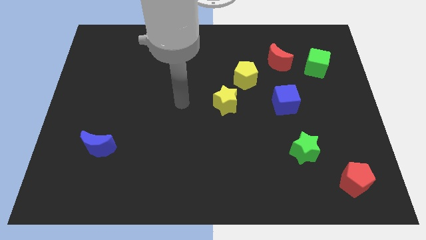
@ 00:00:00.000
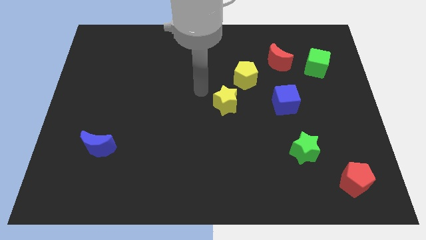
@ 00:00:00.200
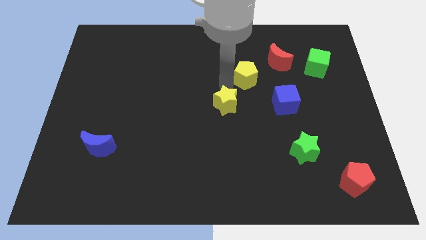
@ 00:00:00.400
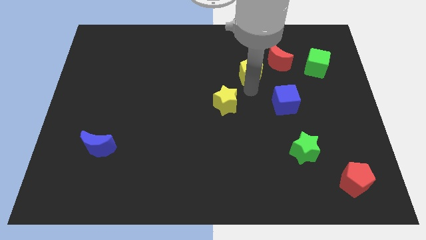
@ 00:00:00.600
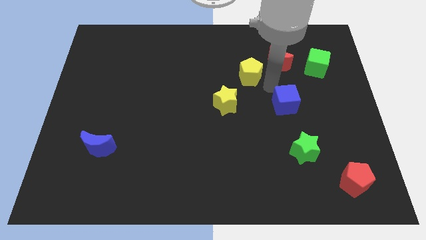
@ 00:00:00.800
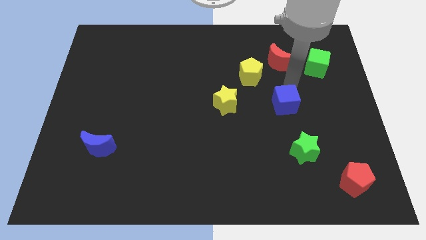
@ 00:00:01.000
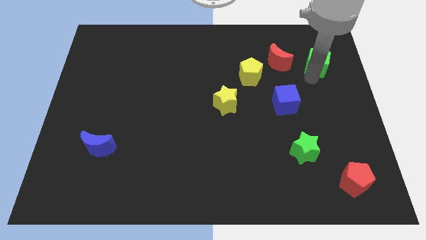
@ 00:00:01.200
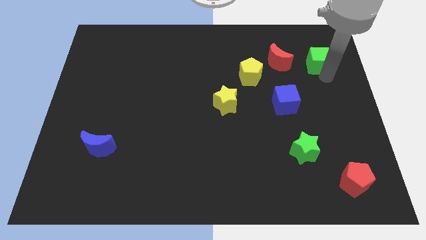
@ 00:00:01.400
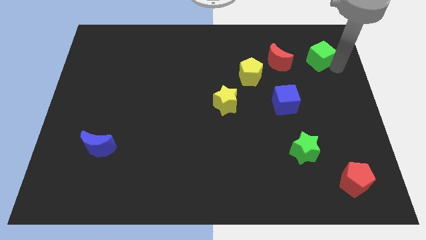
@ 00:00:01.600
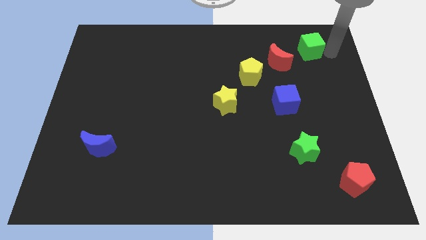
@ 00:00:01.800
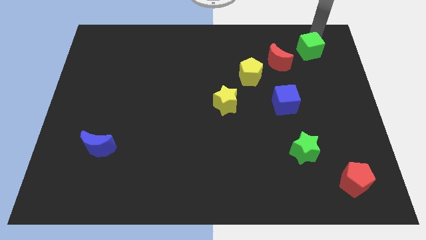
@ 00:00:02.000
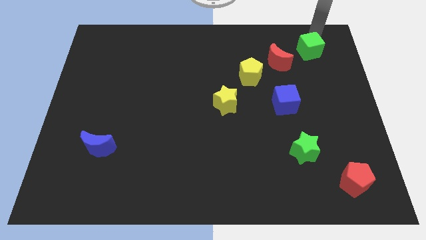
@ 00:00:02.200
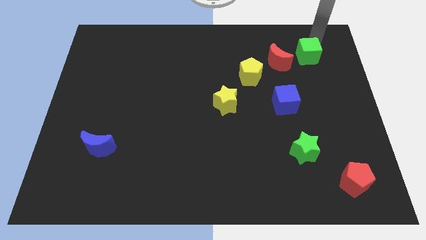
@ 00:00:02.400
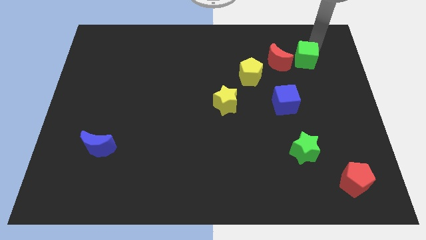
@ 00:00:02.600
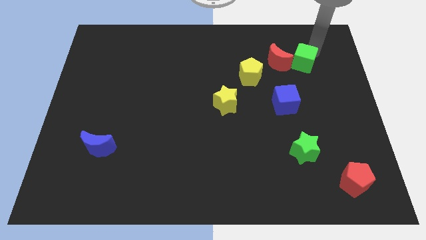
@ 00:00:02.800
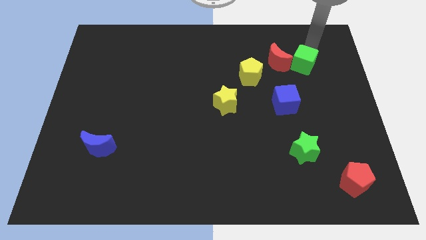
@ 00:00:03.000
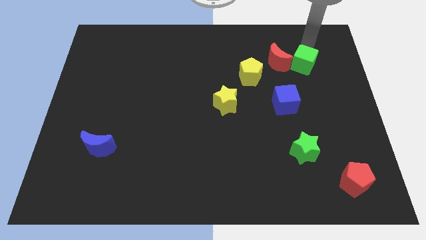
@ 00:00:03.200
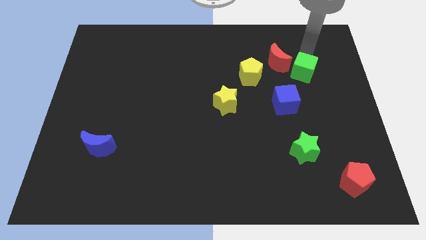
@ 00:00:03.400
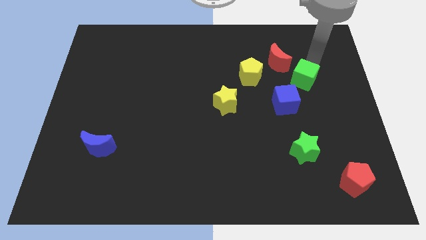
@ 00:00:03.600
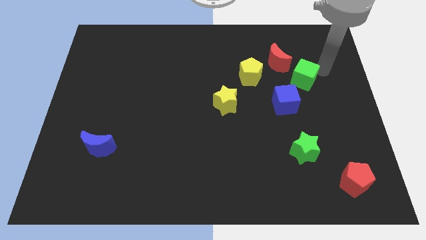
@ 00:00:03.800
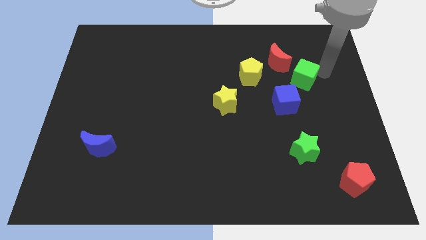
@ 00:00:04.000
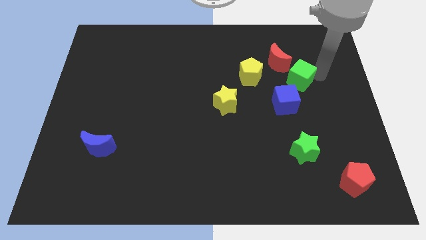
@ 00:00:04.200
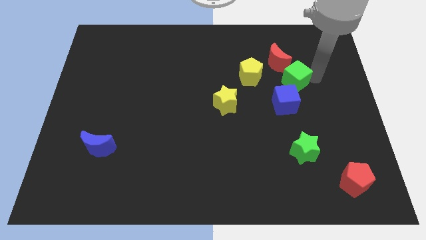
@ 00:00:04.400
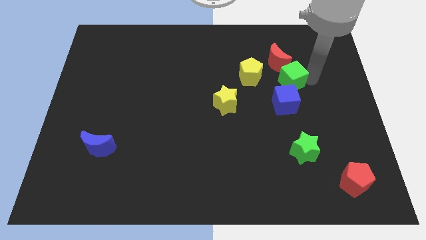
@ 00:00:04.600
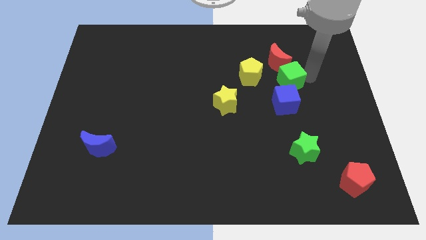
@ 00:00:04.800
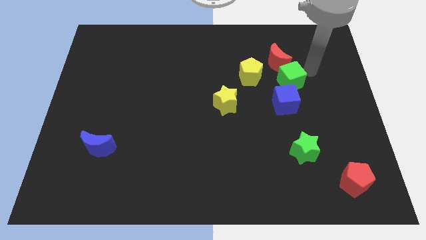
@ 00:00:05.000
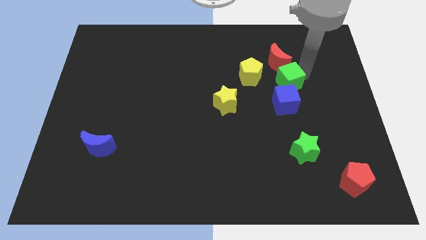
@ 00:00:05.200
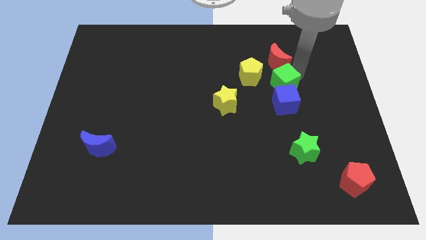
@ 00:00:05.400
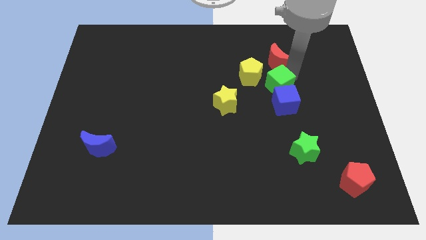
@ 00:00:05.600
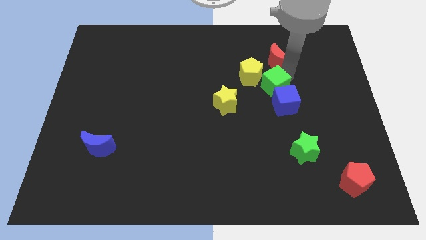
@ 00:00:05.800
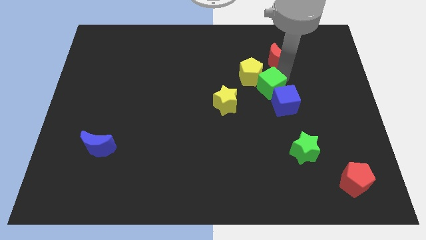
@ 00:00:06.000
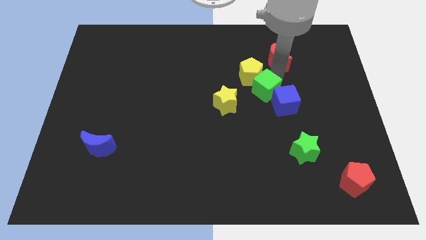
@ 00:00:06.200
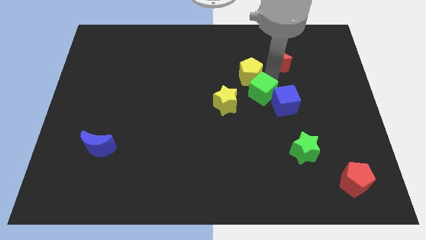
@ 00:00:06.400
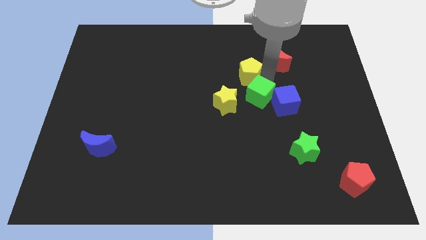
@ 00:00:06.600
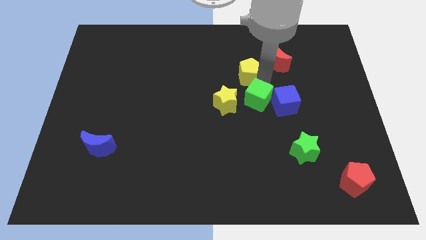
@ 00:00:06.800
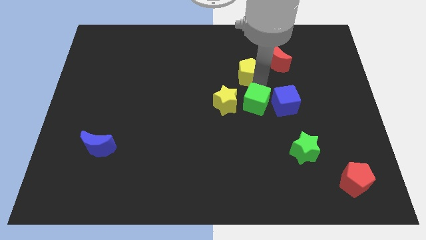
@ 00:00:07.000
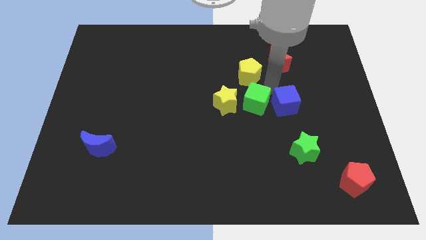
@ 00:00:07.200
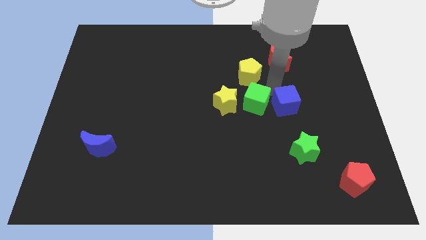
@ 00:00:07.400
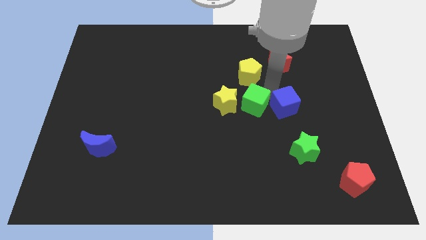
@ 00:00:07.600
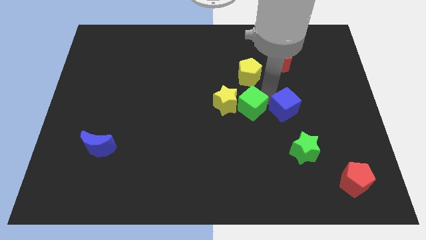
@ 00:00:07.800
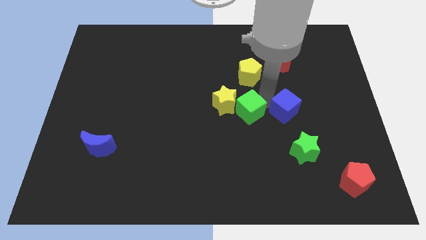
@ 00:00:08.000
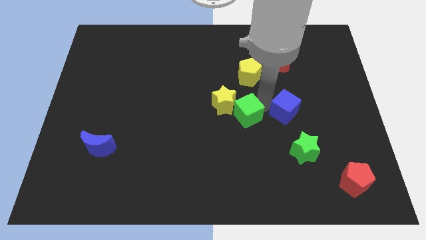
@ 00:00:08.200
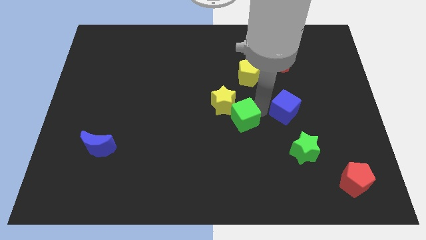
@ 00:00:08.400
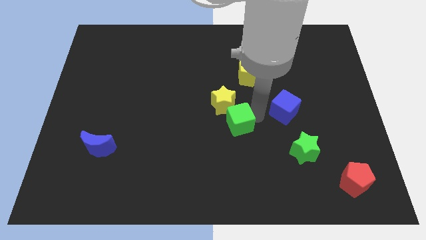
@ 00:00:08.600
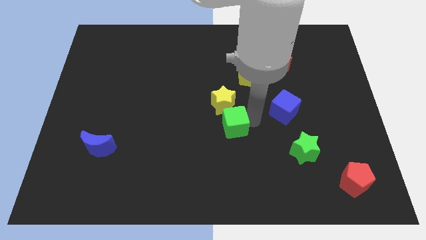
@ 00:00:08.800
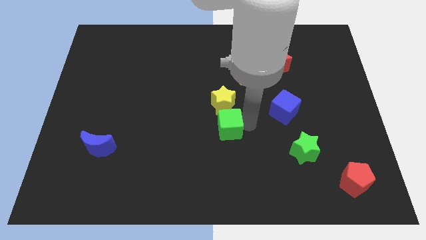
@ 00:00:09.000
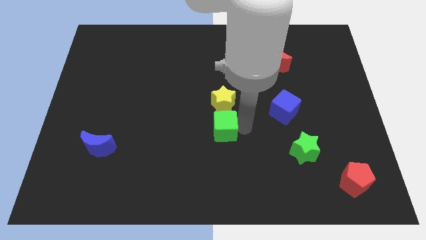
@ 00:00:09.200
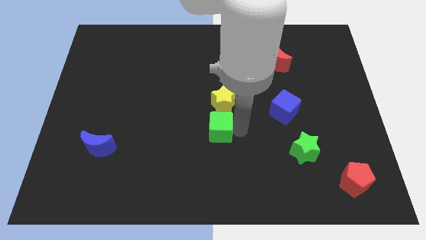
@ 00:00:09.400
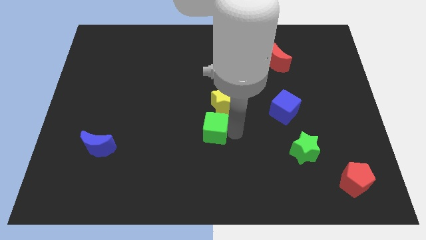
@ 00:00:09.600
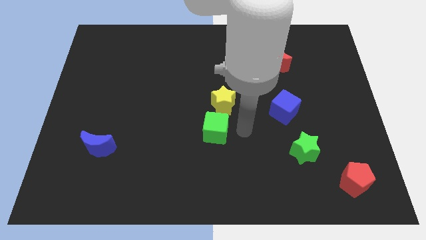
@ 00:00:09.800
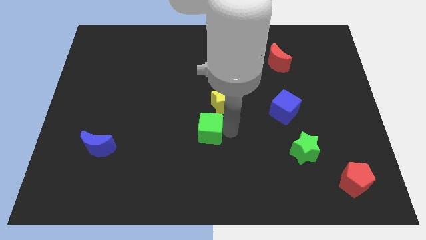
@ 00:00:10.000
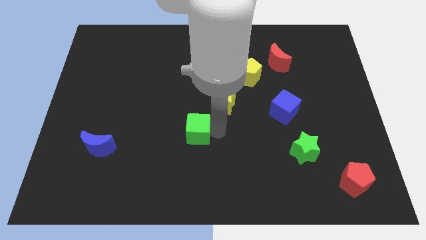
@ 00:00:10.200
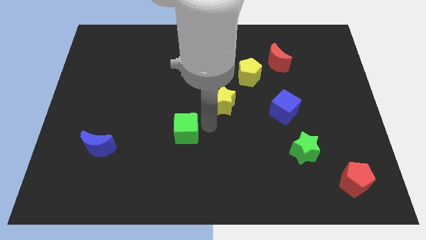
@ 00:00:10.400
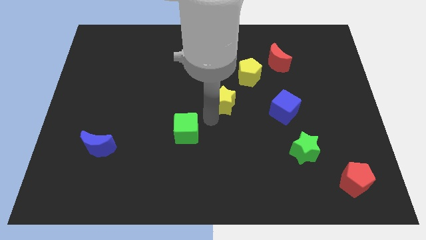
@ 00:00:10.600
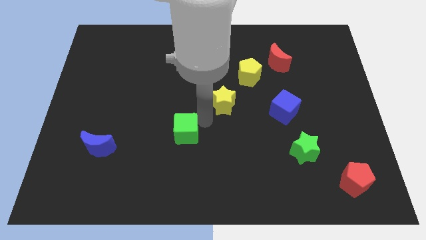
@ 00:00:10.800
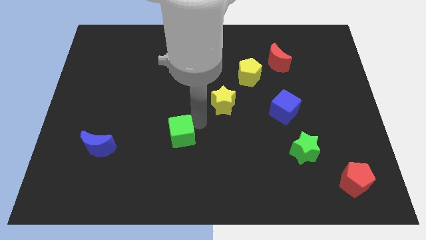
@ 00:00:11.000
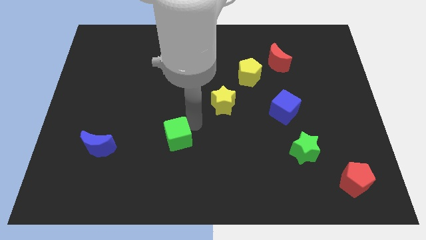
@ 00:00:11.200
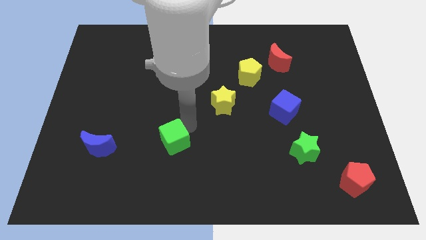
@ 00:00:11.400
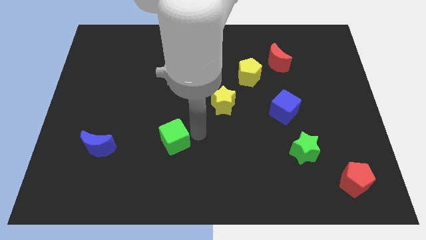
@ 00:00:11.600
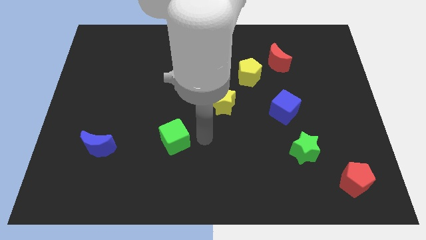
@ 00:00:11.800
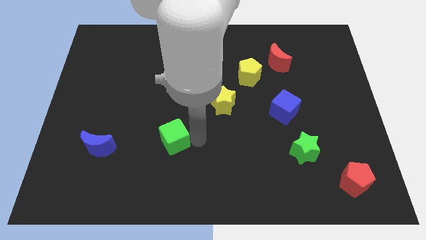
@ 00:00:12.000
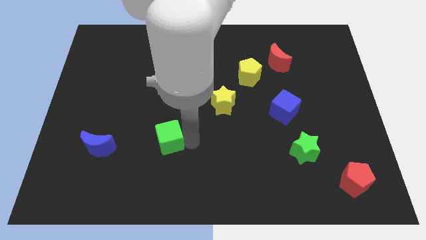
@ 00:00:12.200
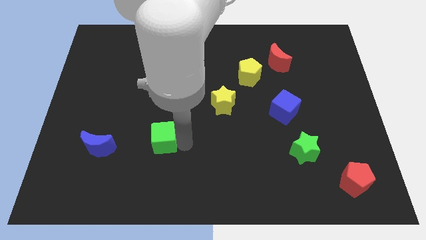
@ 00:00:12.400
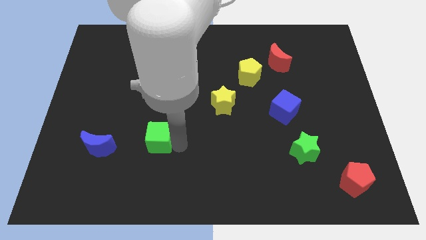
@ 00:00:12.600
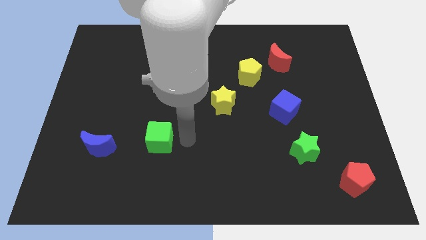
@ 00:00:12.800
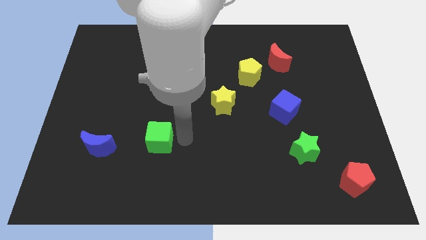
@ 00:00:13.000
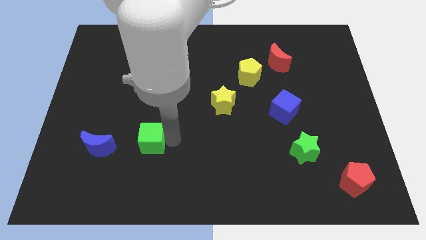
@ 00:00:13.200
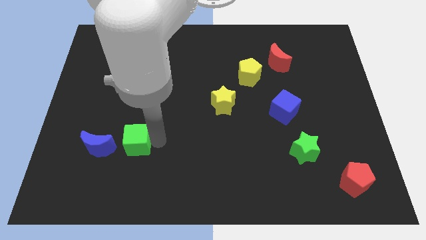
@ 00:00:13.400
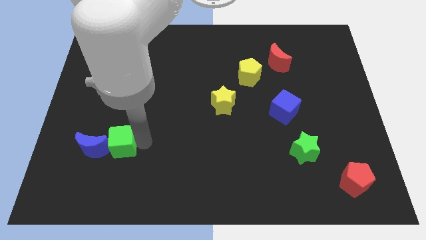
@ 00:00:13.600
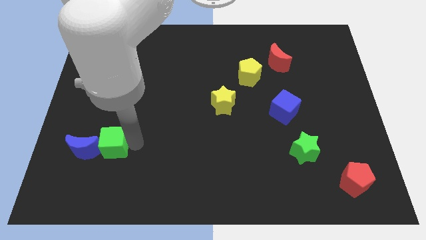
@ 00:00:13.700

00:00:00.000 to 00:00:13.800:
push the green cube next to the blue moon
